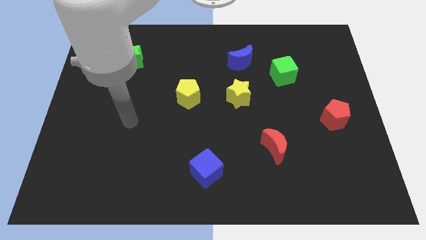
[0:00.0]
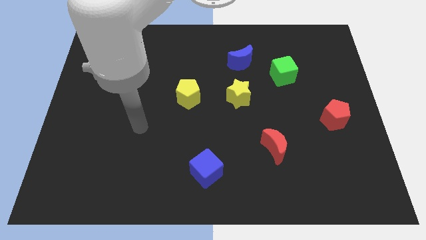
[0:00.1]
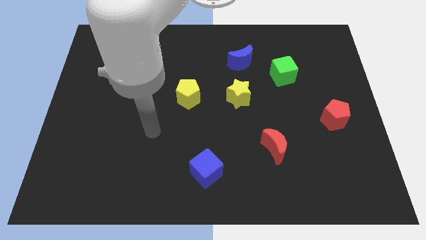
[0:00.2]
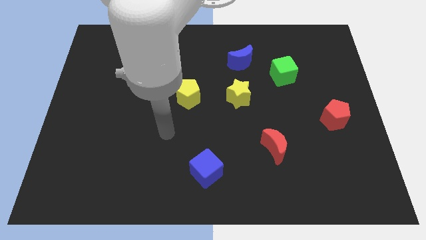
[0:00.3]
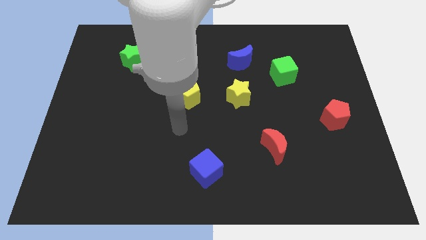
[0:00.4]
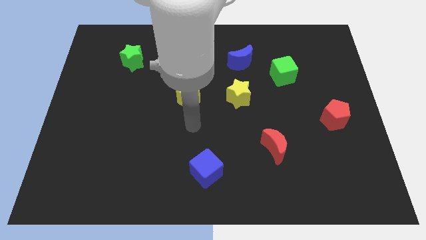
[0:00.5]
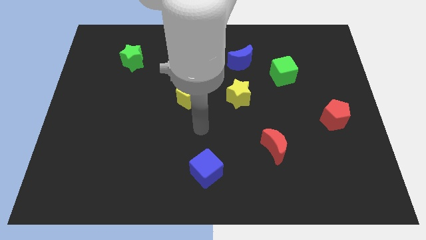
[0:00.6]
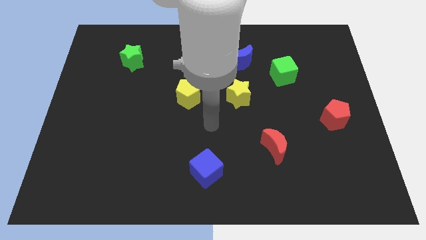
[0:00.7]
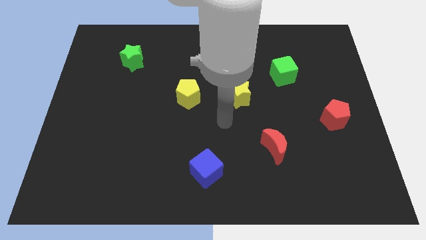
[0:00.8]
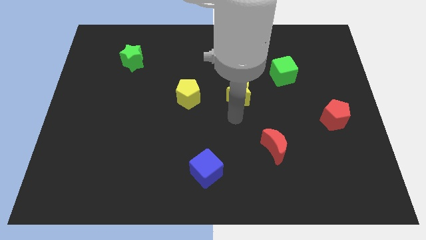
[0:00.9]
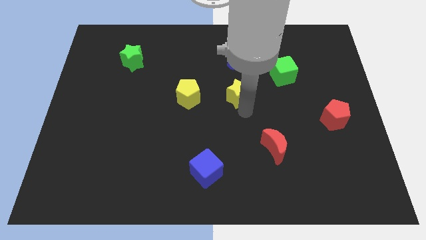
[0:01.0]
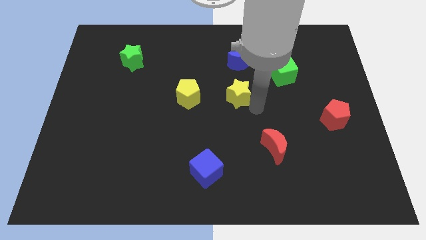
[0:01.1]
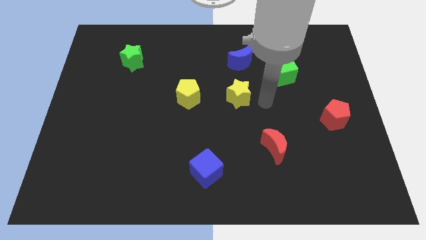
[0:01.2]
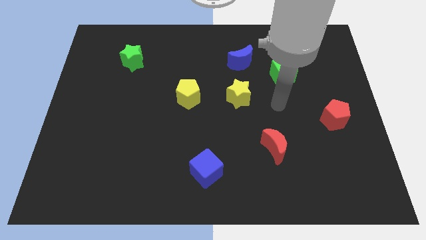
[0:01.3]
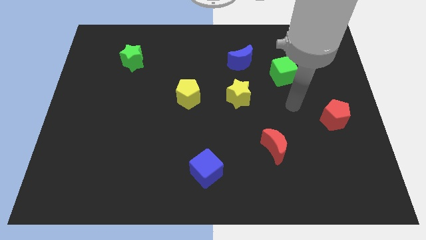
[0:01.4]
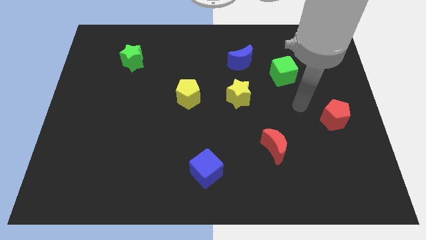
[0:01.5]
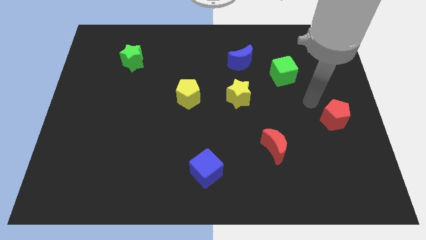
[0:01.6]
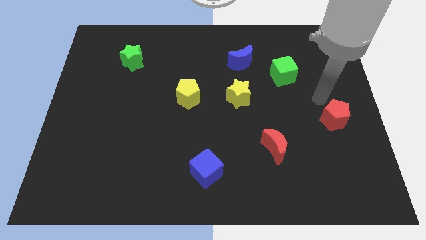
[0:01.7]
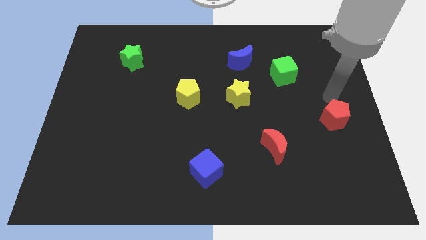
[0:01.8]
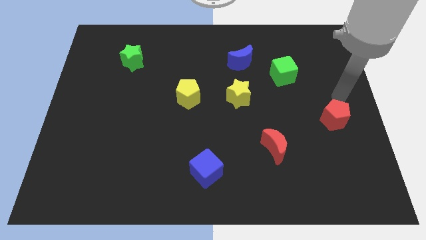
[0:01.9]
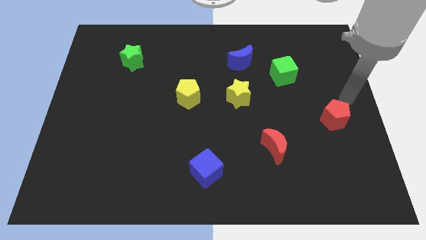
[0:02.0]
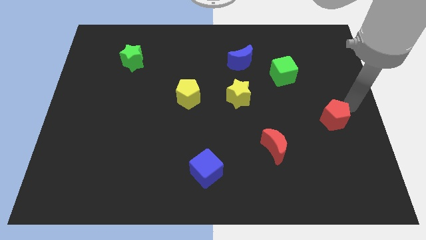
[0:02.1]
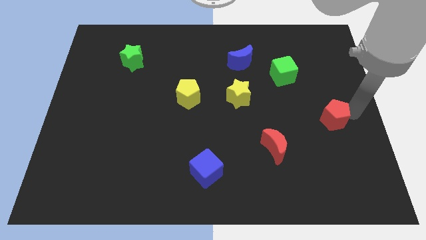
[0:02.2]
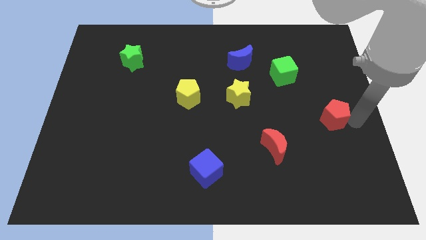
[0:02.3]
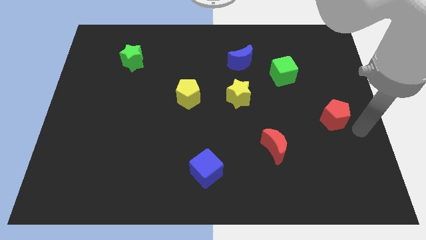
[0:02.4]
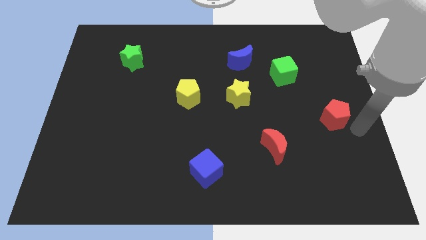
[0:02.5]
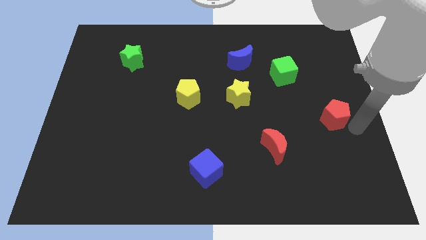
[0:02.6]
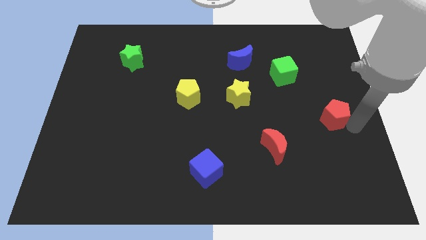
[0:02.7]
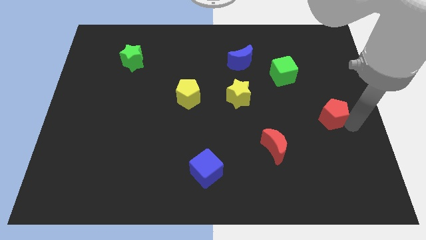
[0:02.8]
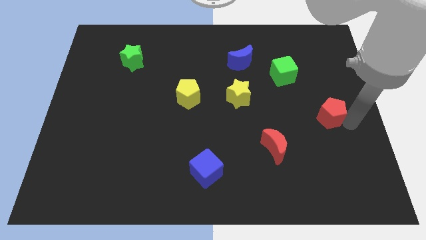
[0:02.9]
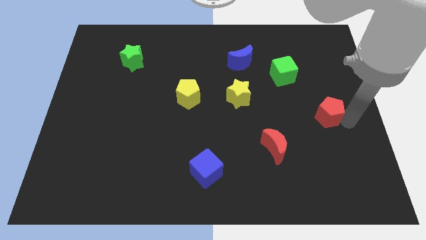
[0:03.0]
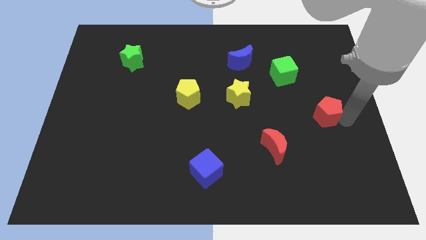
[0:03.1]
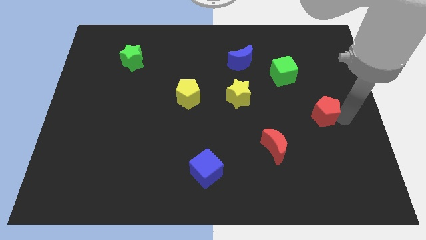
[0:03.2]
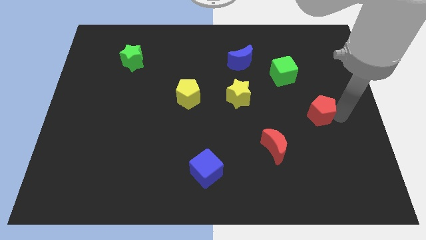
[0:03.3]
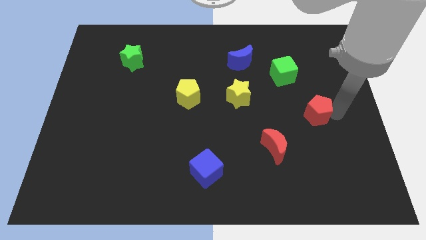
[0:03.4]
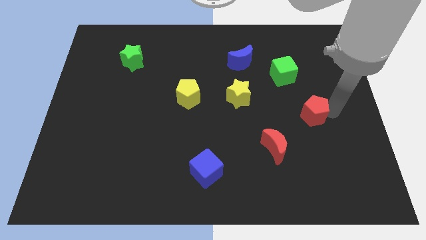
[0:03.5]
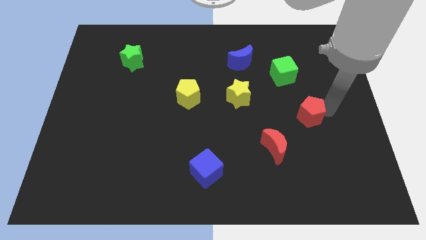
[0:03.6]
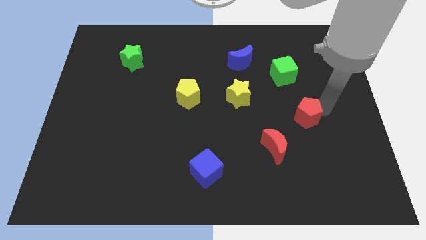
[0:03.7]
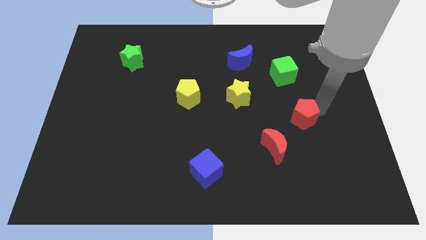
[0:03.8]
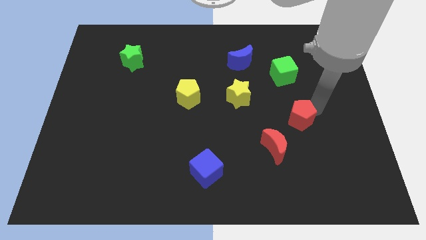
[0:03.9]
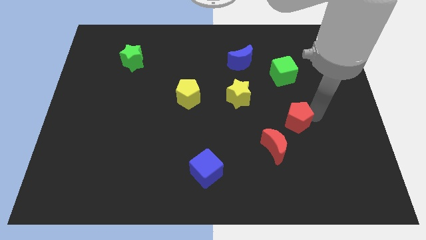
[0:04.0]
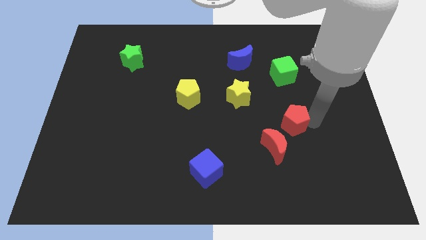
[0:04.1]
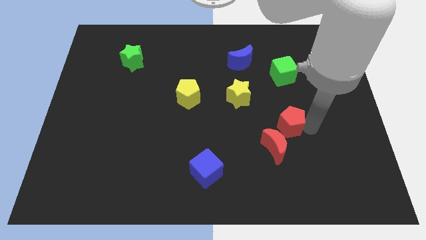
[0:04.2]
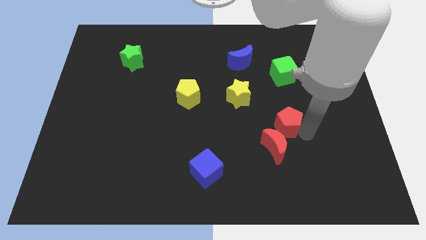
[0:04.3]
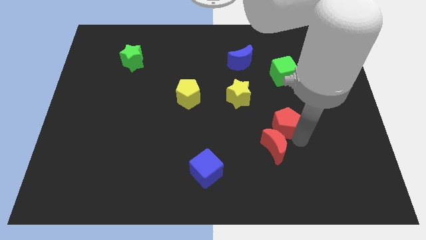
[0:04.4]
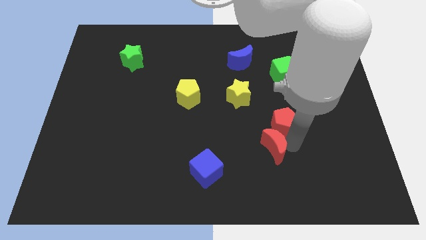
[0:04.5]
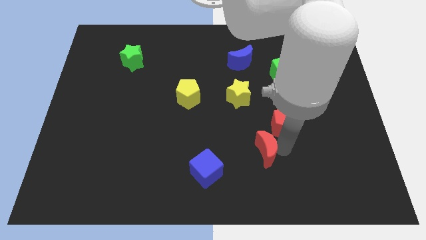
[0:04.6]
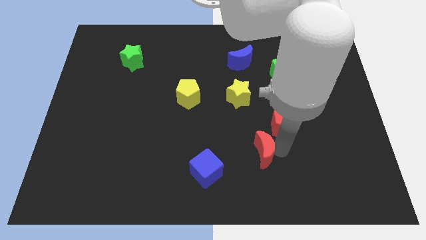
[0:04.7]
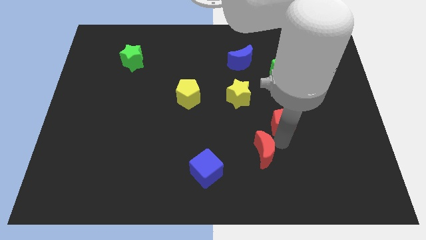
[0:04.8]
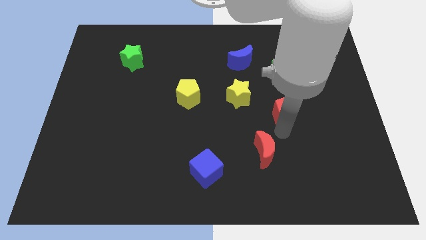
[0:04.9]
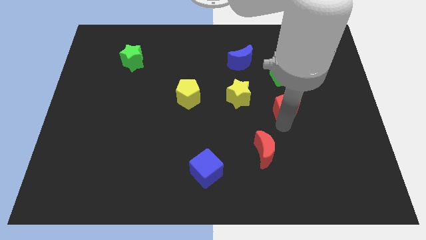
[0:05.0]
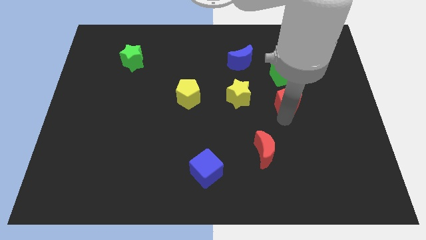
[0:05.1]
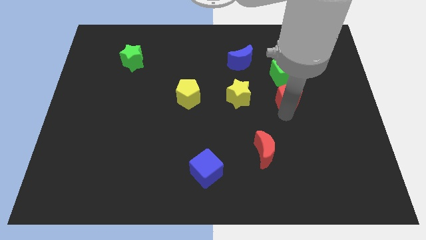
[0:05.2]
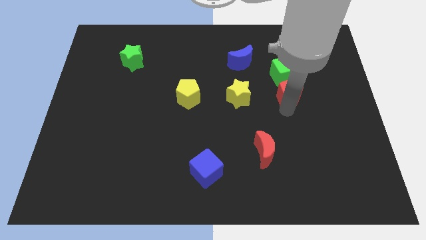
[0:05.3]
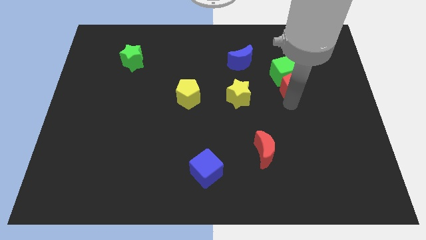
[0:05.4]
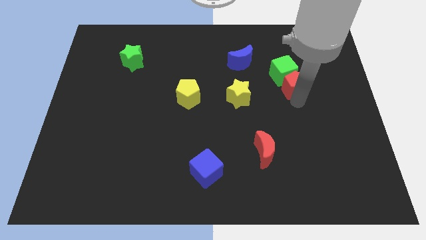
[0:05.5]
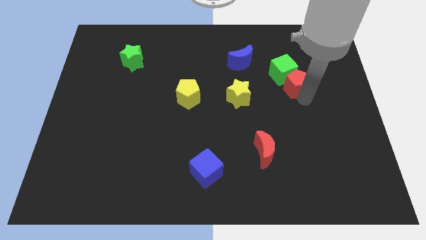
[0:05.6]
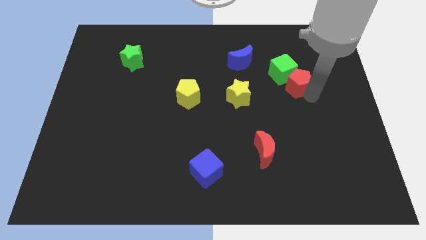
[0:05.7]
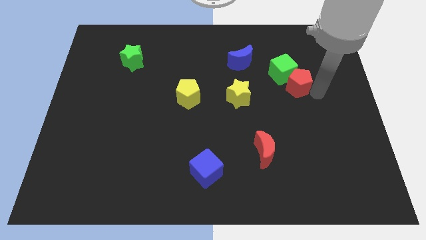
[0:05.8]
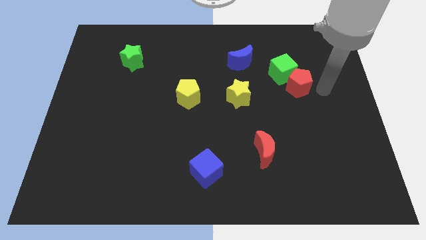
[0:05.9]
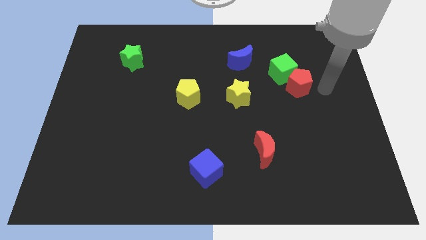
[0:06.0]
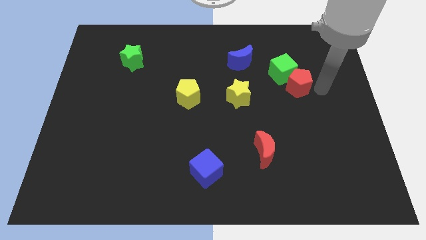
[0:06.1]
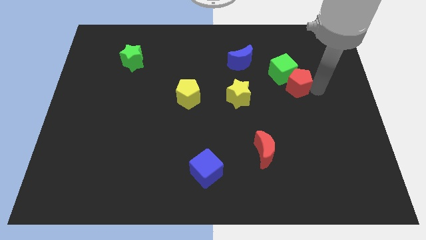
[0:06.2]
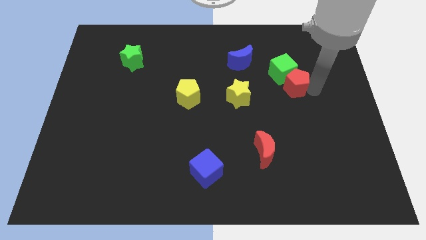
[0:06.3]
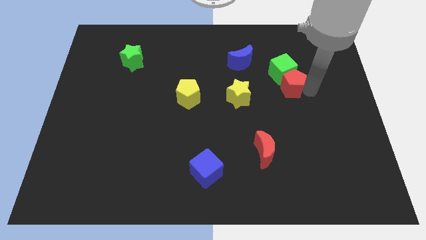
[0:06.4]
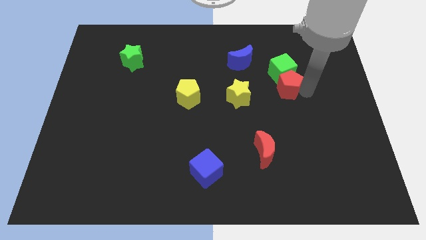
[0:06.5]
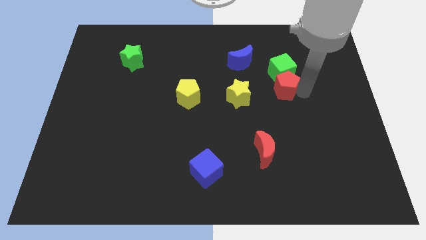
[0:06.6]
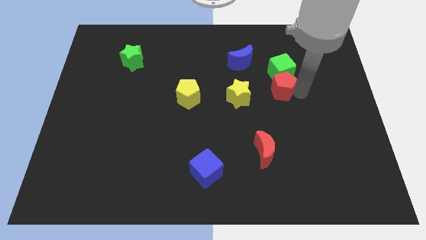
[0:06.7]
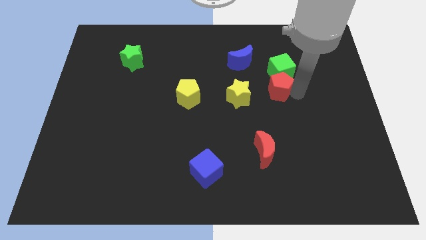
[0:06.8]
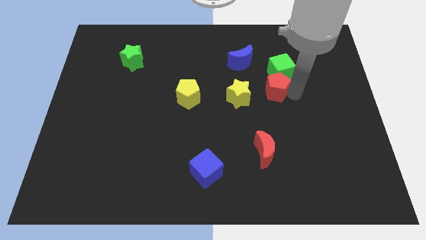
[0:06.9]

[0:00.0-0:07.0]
slide the red pentagon to the top right of the yellow star
